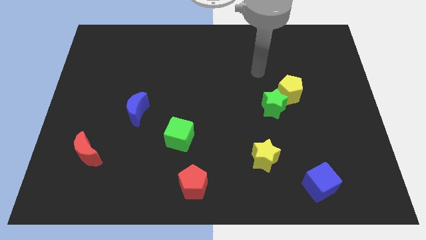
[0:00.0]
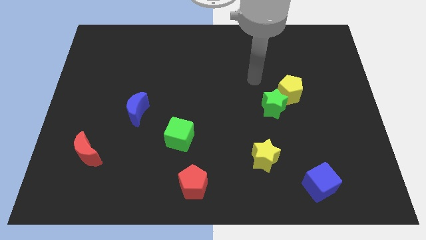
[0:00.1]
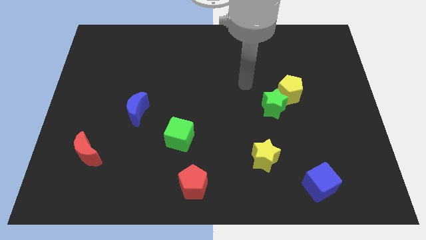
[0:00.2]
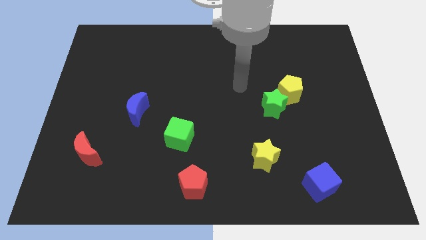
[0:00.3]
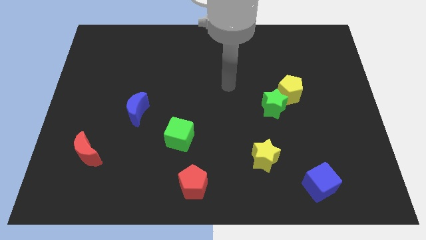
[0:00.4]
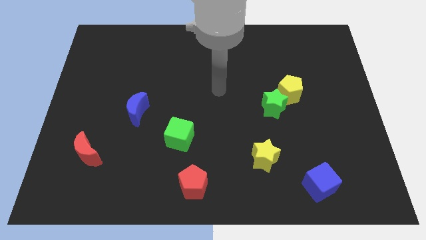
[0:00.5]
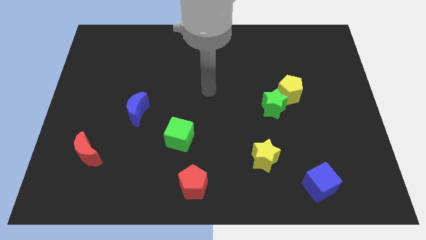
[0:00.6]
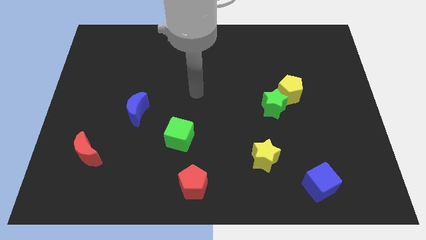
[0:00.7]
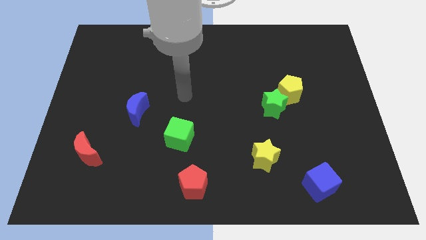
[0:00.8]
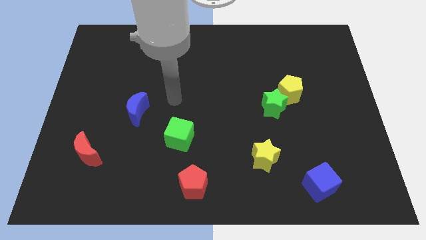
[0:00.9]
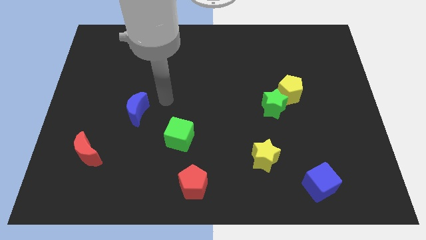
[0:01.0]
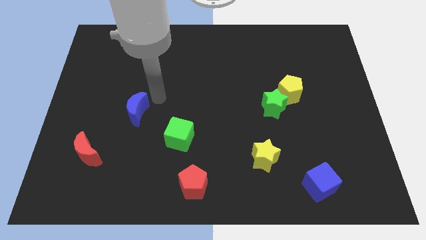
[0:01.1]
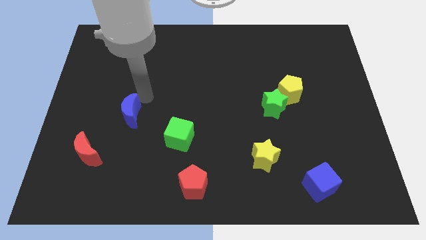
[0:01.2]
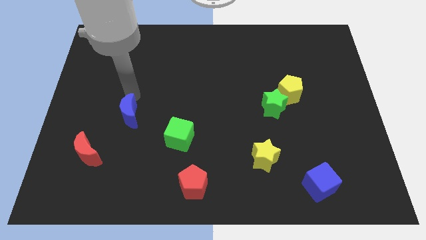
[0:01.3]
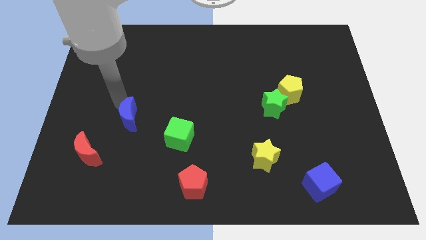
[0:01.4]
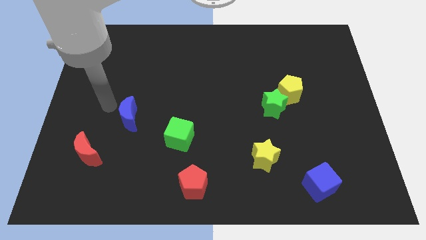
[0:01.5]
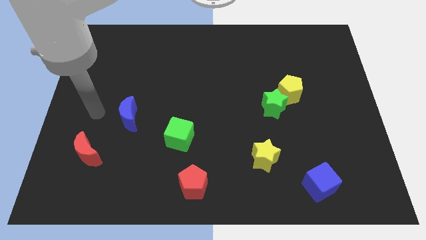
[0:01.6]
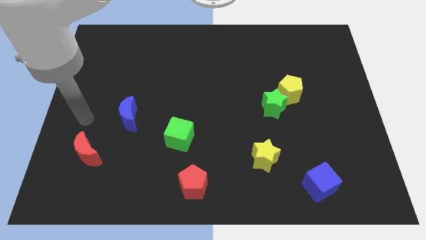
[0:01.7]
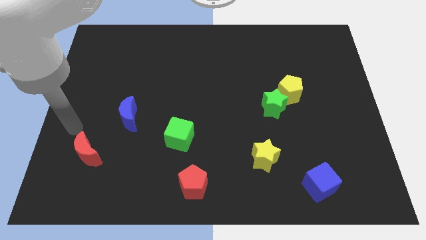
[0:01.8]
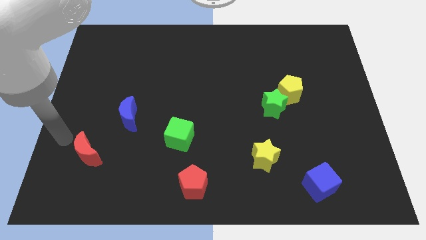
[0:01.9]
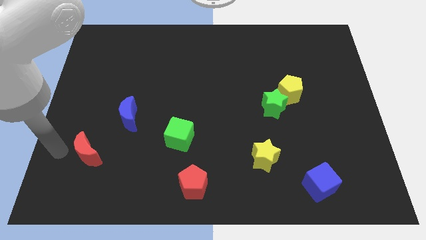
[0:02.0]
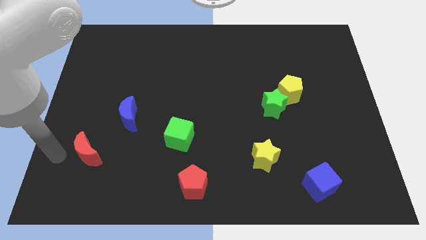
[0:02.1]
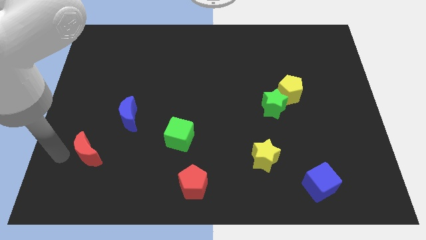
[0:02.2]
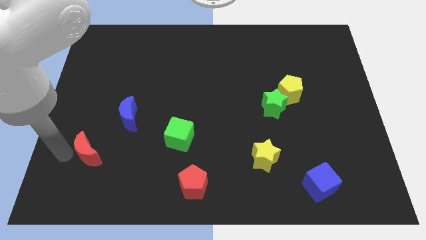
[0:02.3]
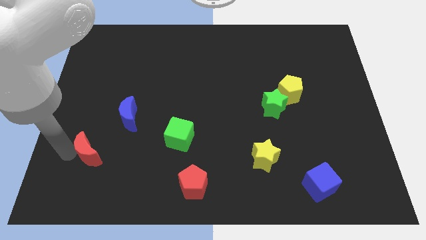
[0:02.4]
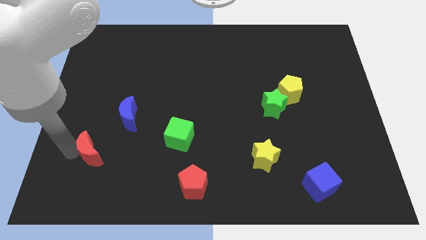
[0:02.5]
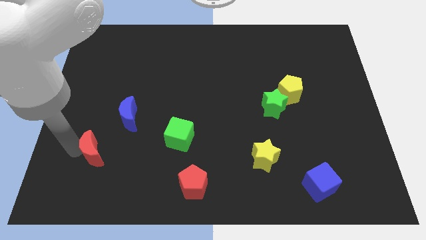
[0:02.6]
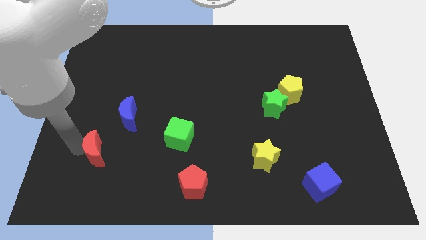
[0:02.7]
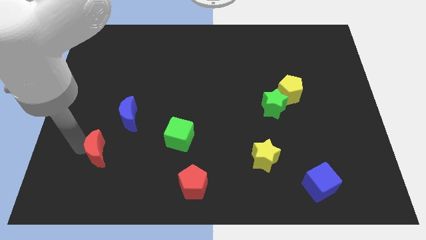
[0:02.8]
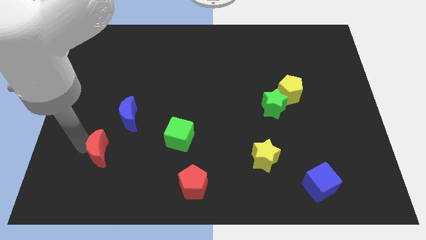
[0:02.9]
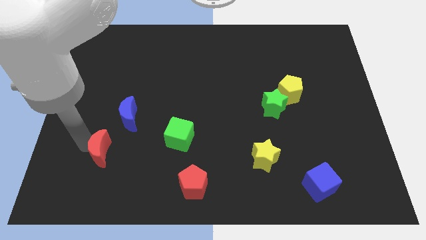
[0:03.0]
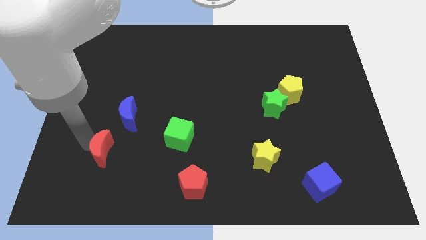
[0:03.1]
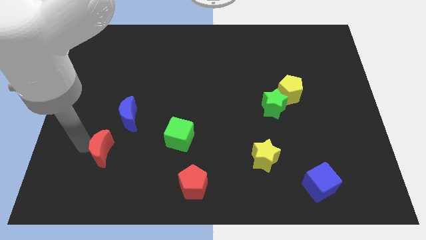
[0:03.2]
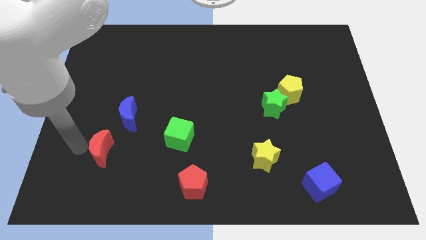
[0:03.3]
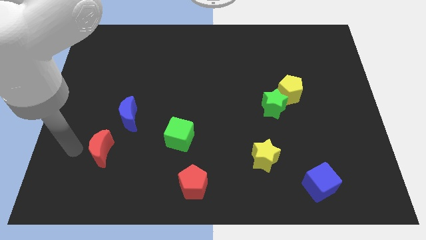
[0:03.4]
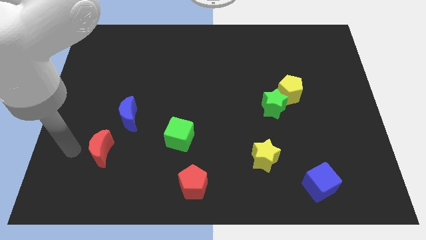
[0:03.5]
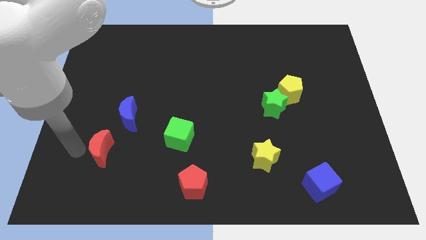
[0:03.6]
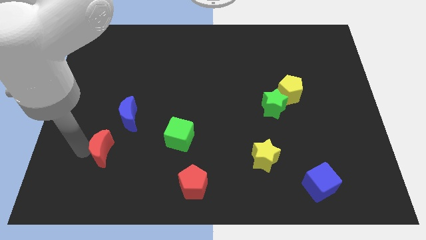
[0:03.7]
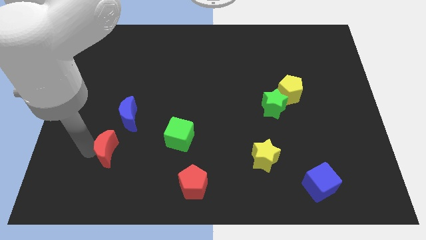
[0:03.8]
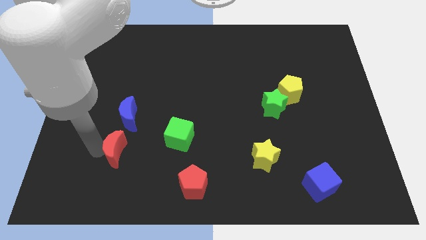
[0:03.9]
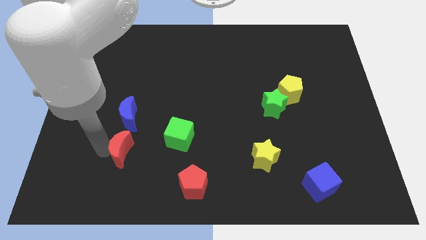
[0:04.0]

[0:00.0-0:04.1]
move the red moon slightly right

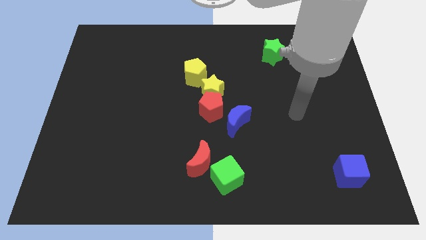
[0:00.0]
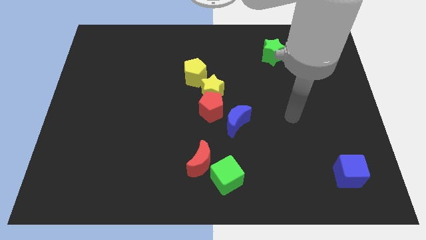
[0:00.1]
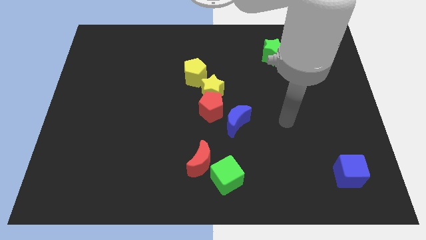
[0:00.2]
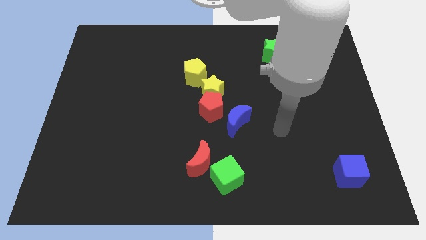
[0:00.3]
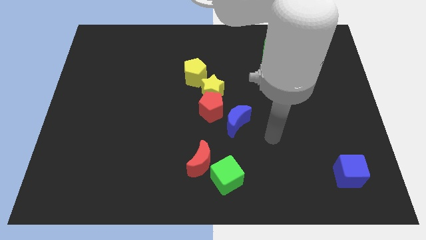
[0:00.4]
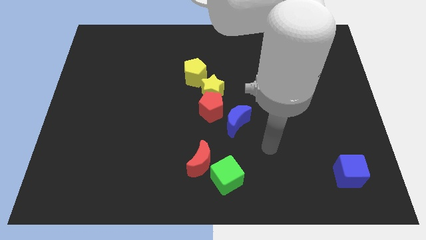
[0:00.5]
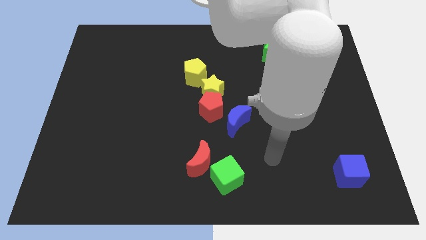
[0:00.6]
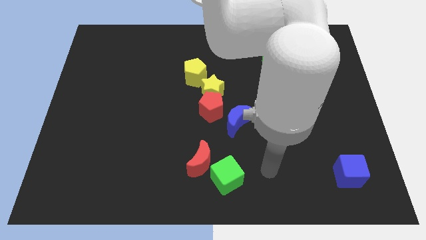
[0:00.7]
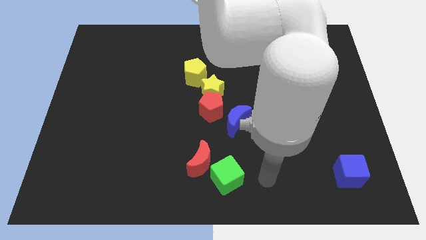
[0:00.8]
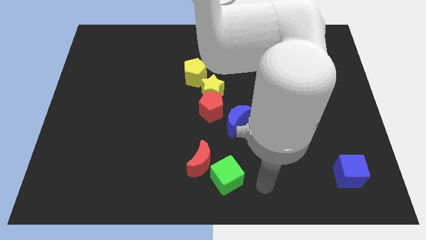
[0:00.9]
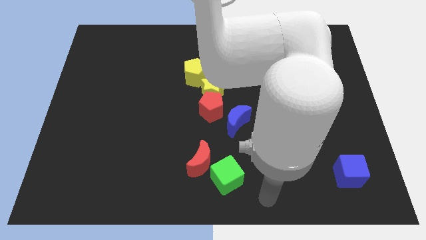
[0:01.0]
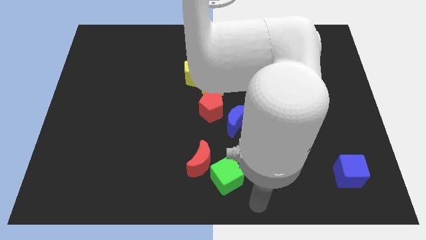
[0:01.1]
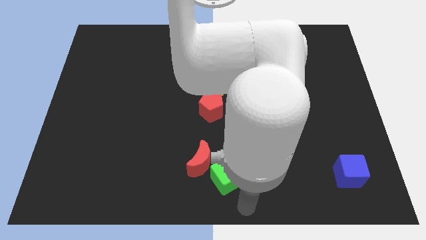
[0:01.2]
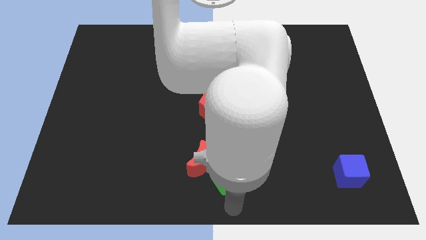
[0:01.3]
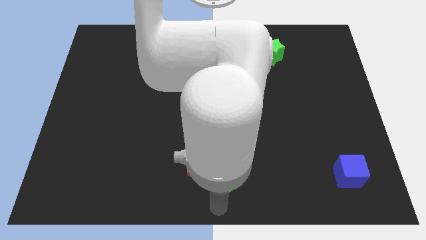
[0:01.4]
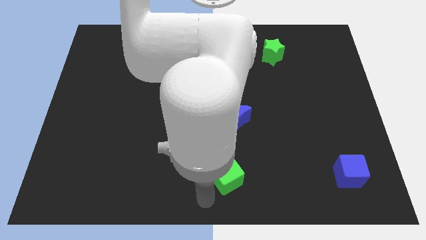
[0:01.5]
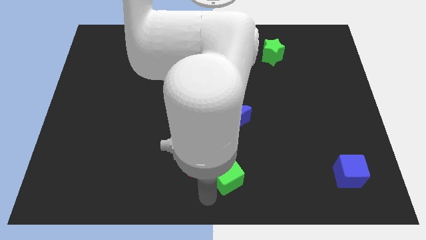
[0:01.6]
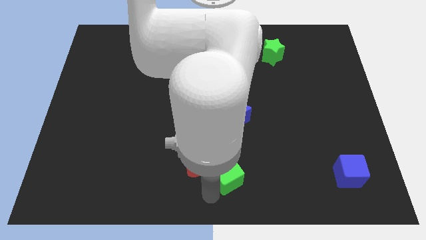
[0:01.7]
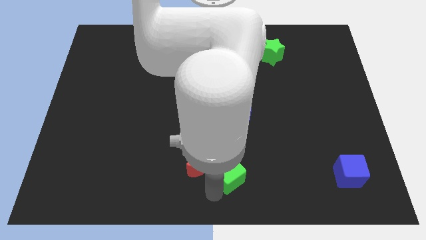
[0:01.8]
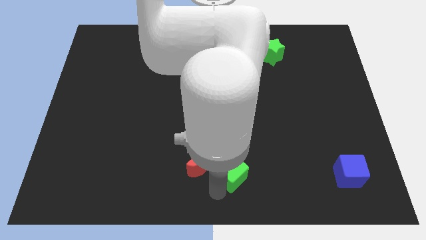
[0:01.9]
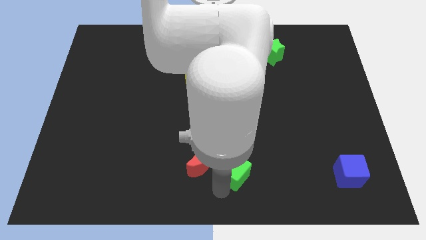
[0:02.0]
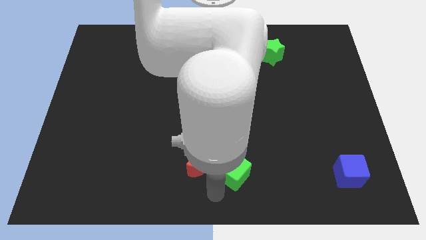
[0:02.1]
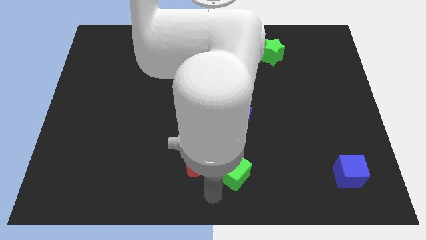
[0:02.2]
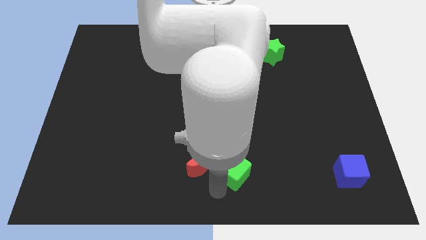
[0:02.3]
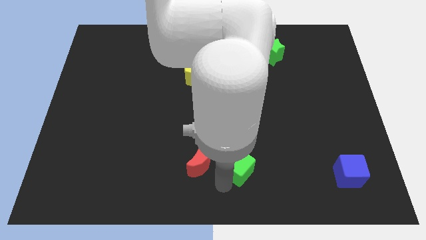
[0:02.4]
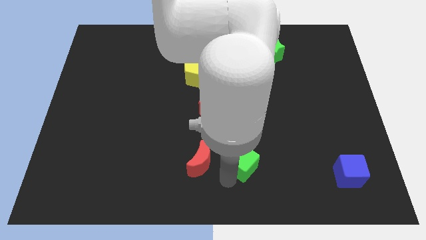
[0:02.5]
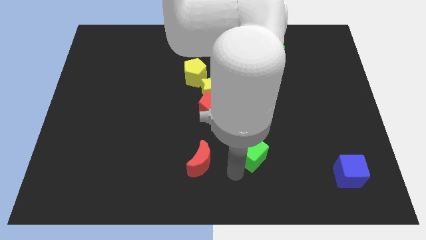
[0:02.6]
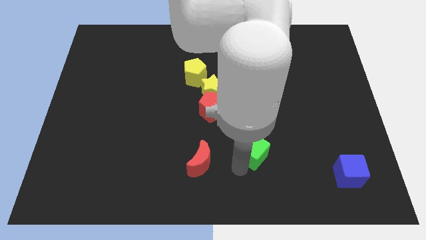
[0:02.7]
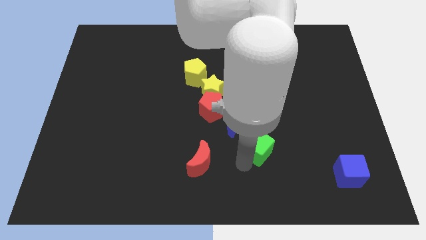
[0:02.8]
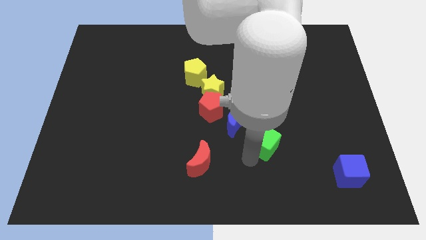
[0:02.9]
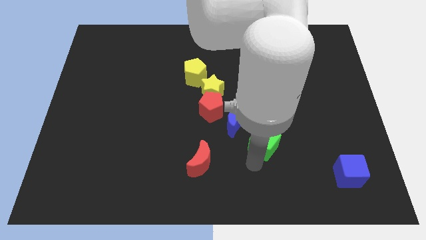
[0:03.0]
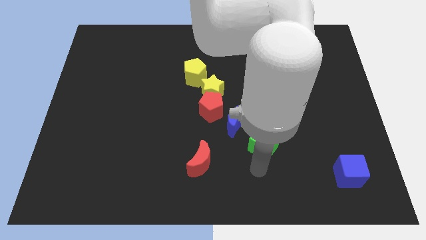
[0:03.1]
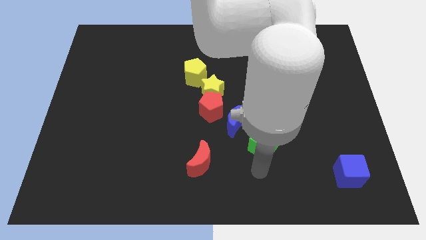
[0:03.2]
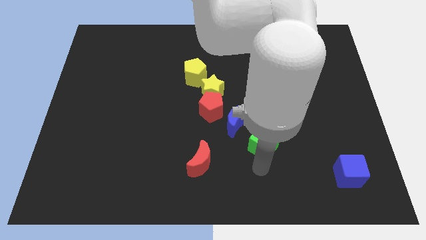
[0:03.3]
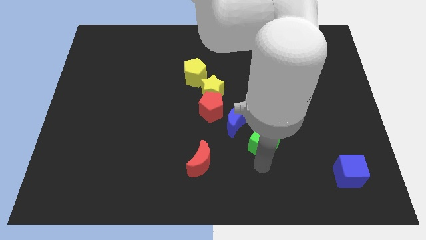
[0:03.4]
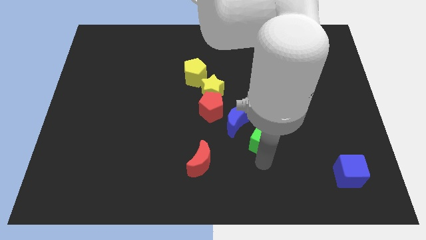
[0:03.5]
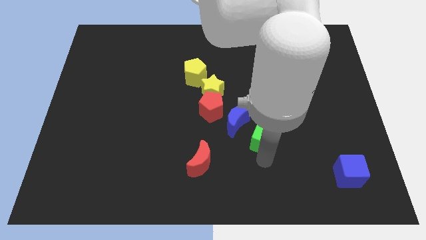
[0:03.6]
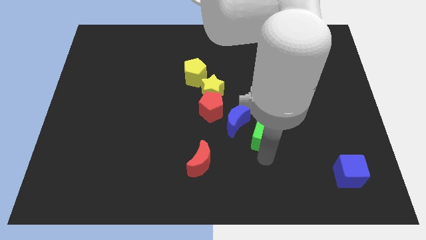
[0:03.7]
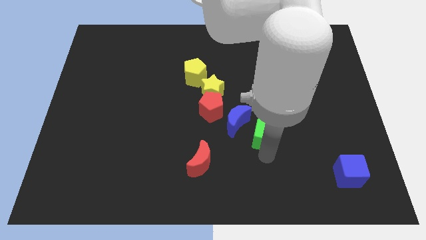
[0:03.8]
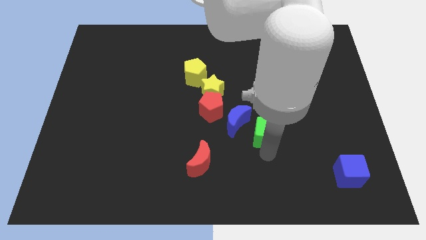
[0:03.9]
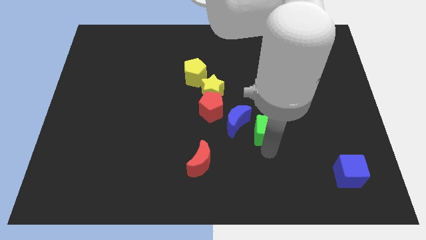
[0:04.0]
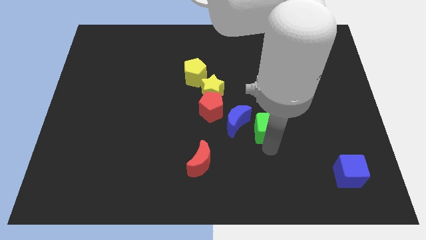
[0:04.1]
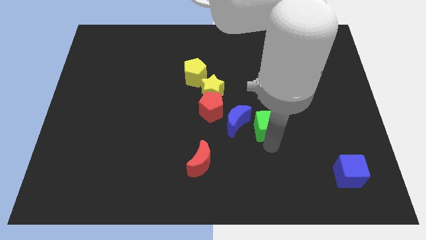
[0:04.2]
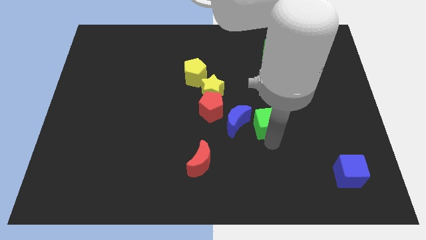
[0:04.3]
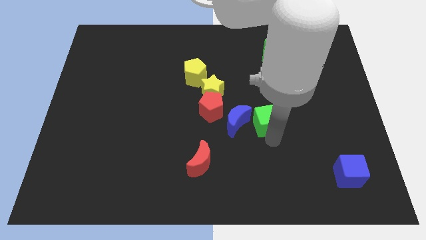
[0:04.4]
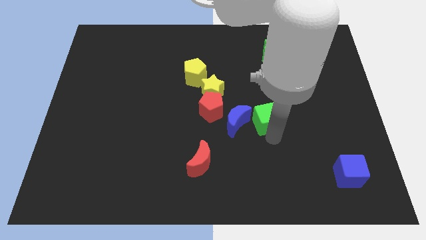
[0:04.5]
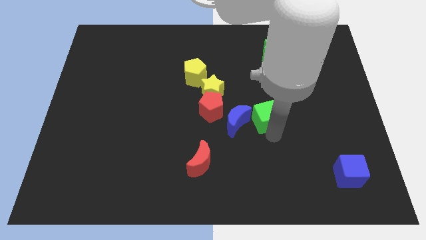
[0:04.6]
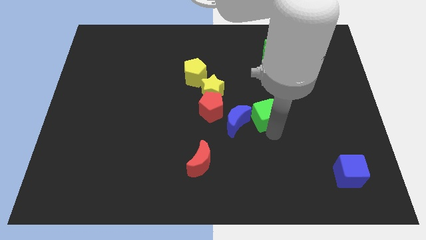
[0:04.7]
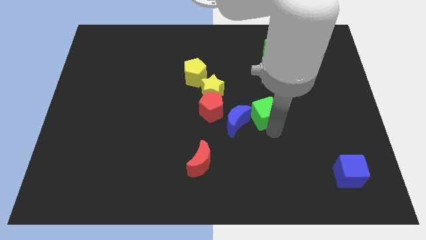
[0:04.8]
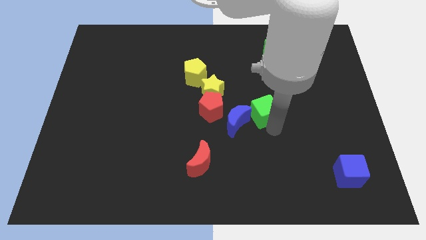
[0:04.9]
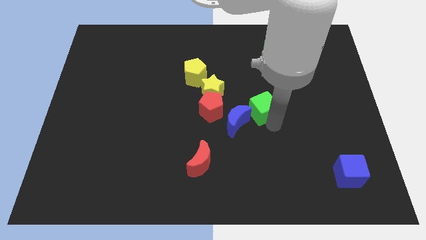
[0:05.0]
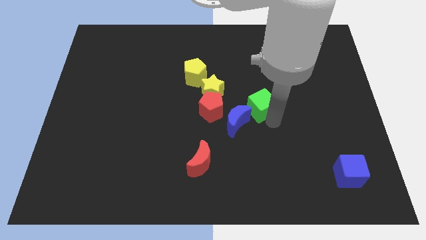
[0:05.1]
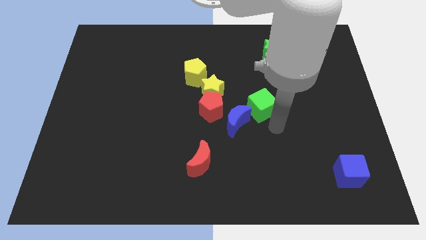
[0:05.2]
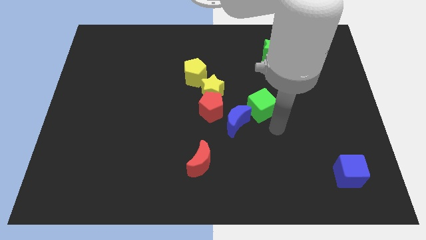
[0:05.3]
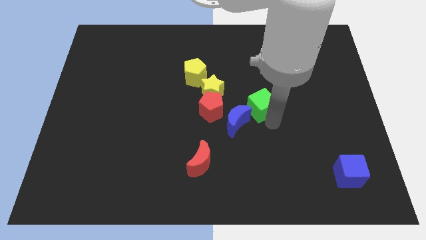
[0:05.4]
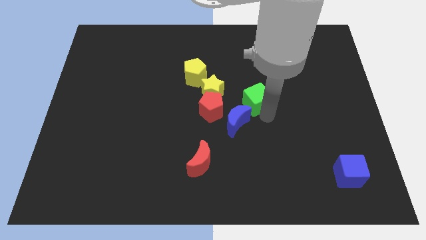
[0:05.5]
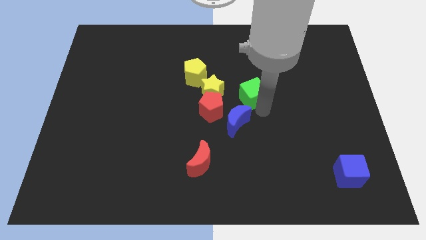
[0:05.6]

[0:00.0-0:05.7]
move the green cube up
